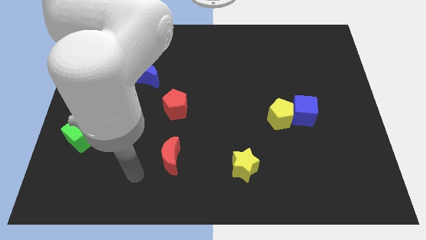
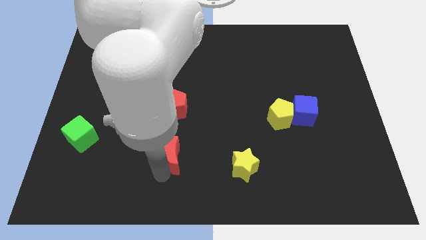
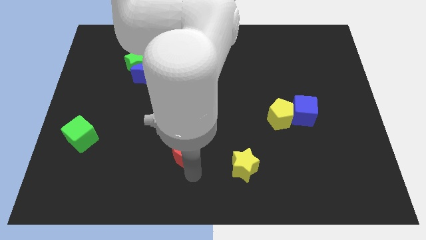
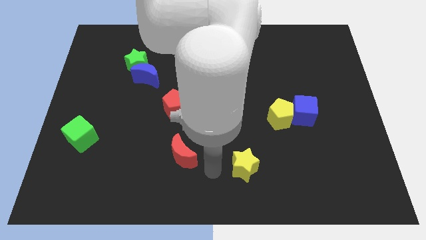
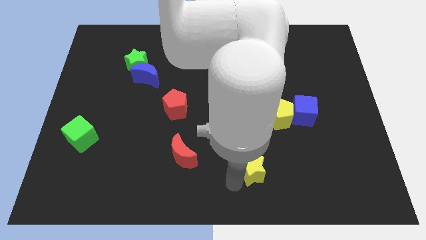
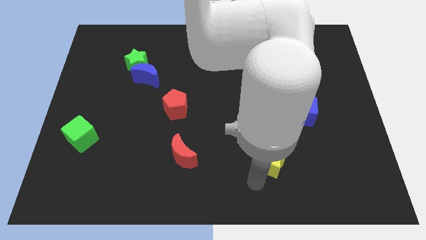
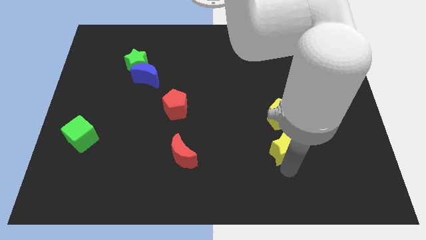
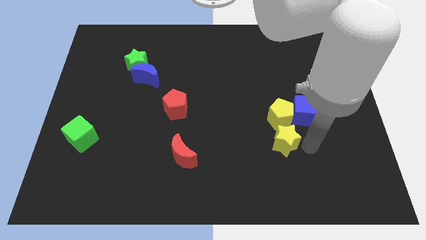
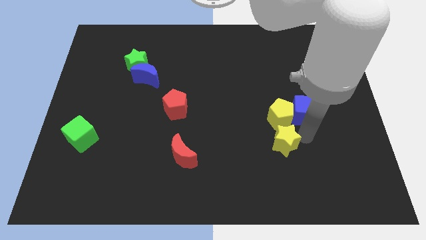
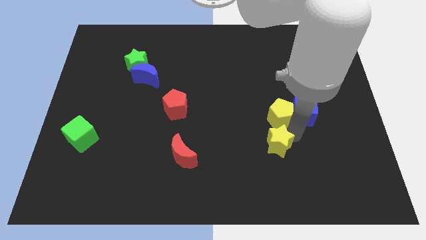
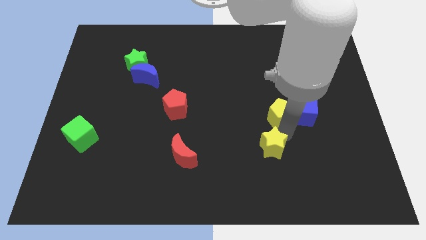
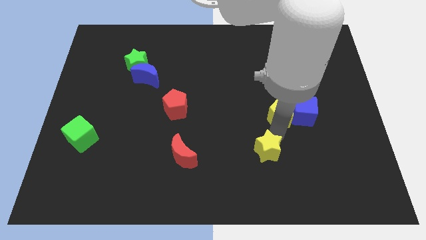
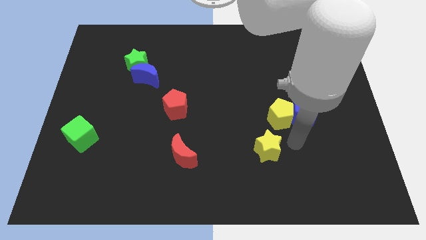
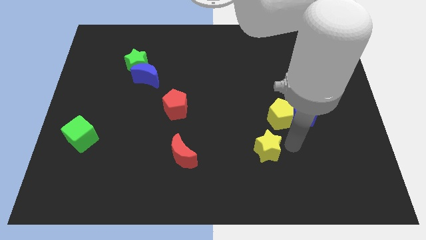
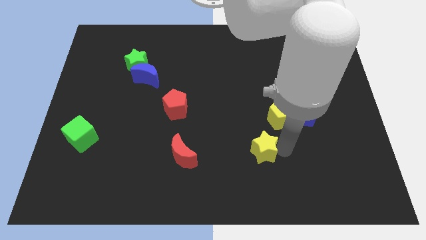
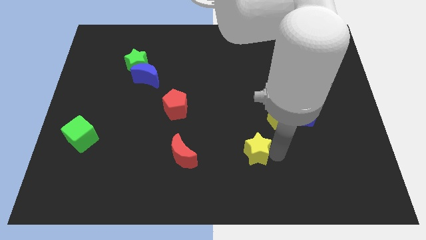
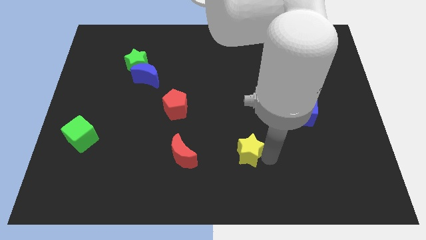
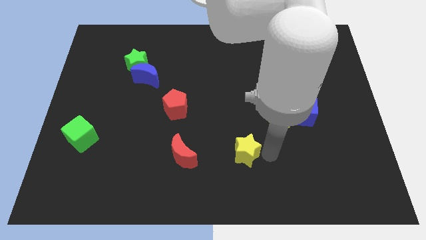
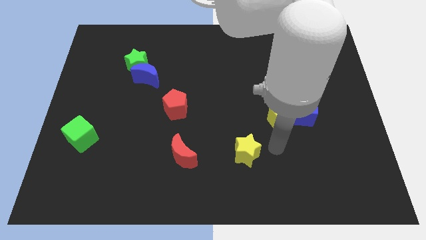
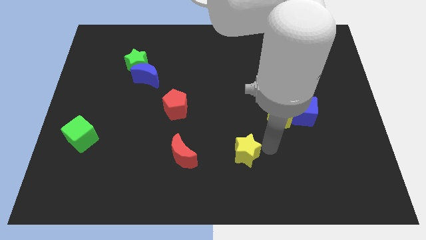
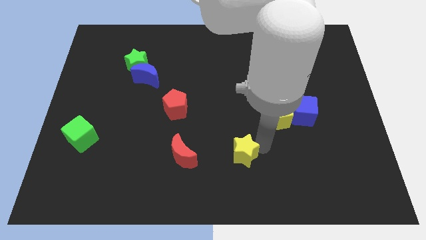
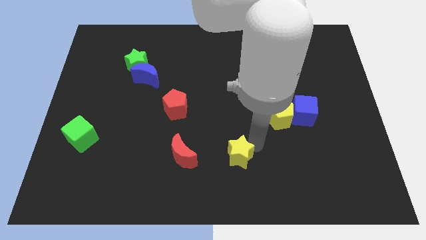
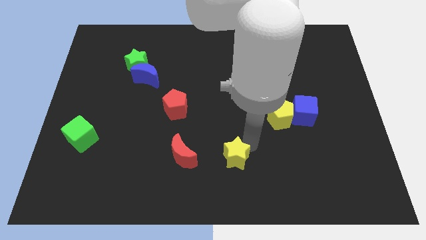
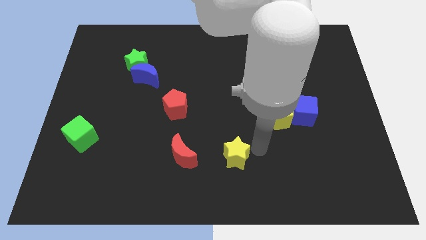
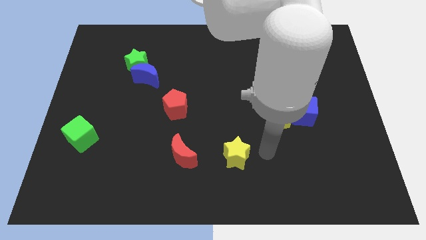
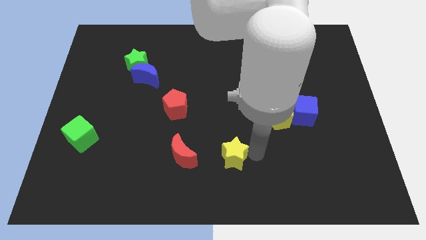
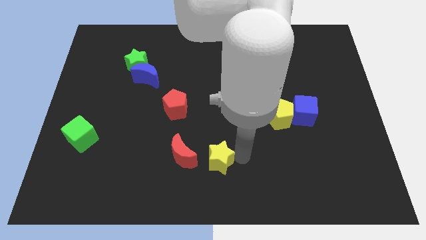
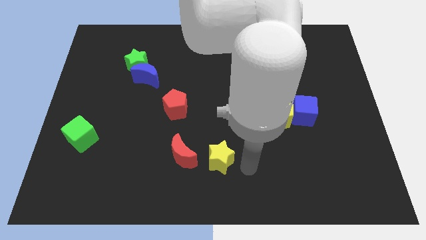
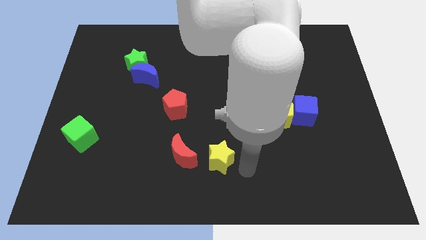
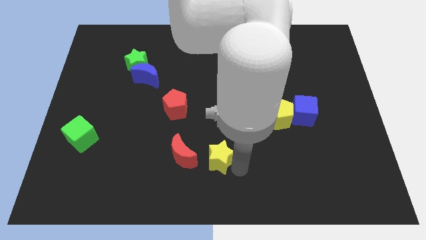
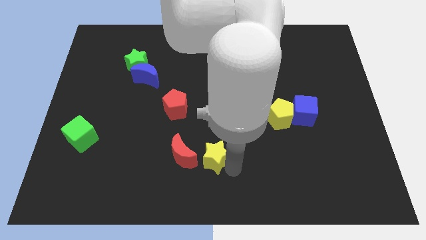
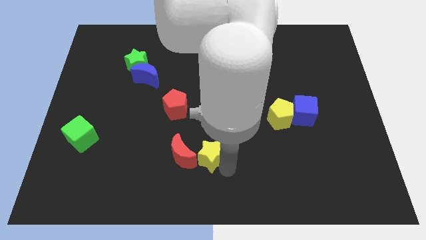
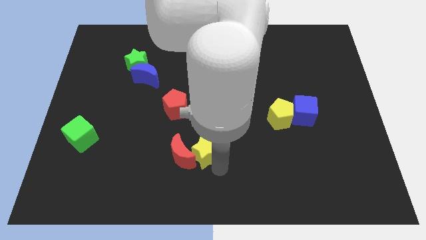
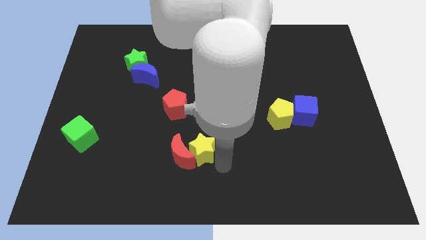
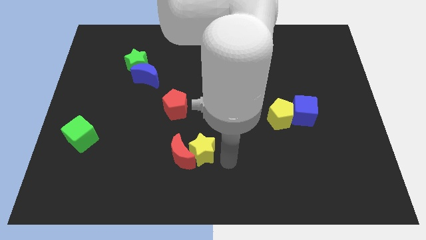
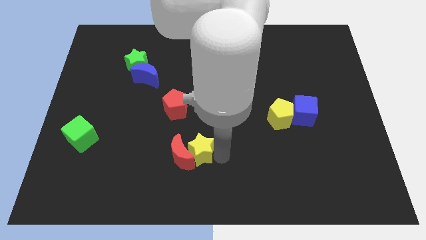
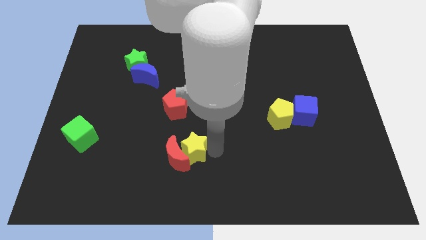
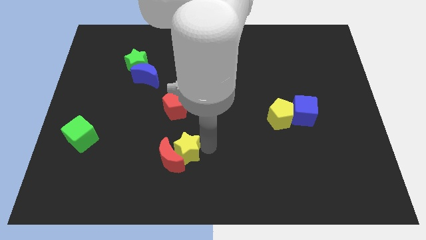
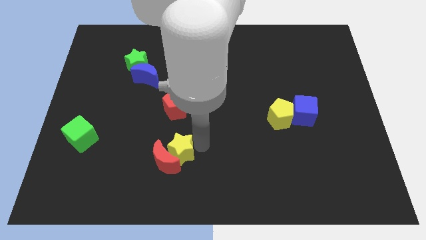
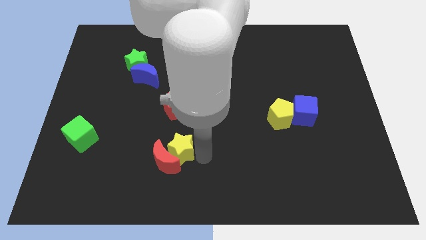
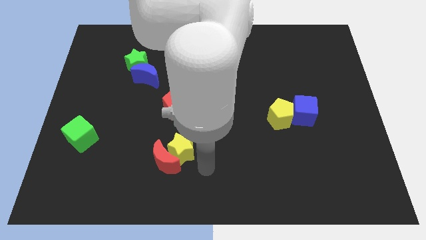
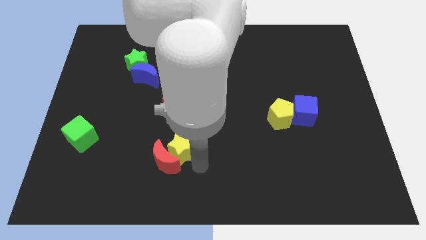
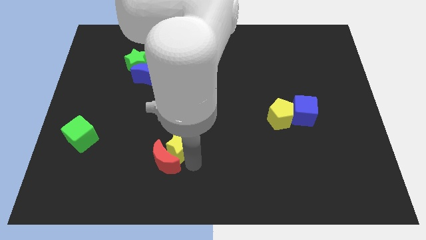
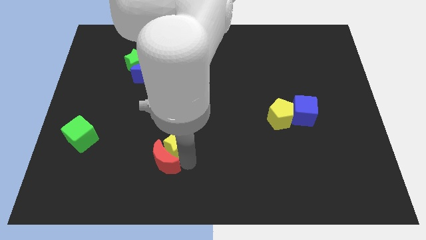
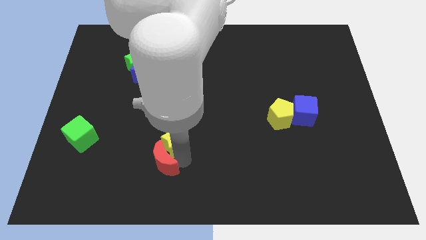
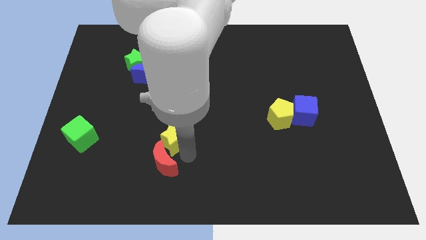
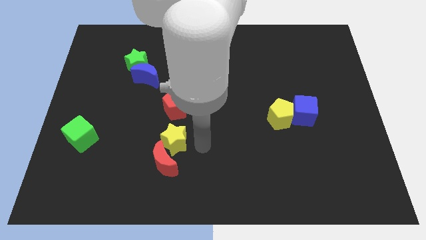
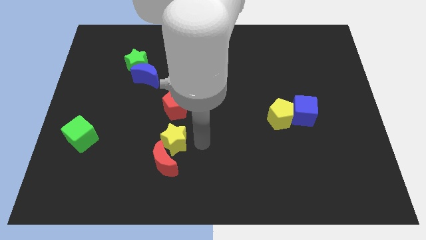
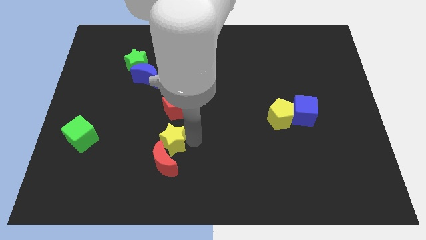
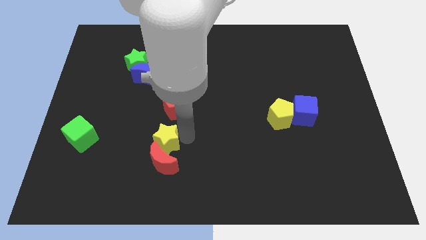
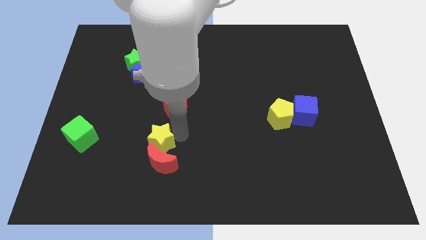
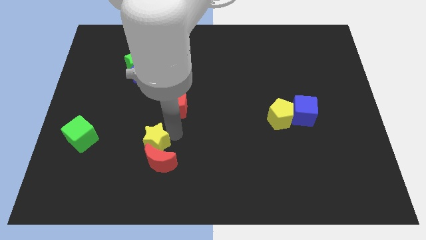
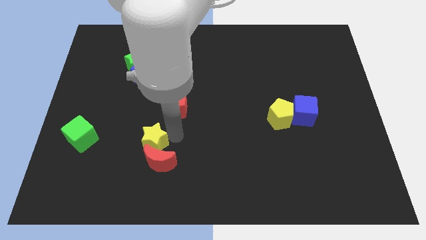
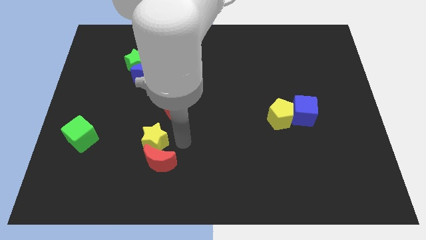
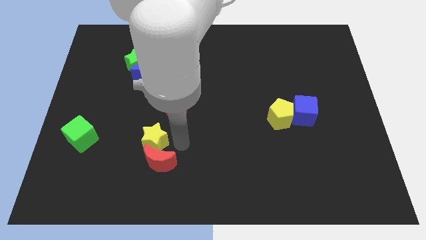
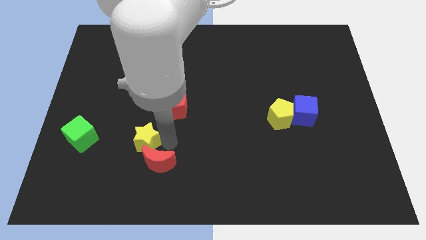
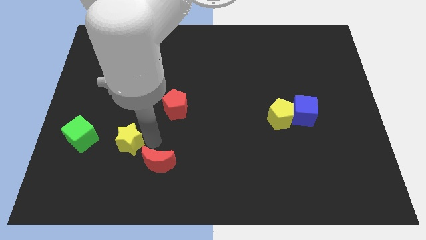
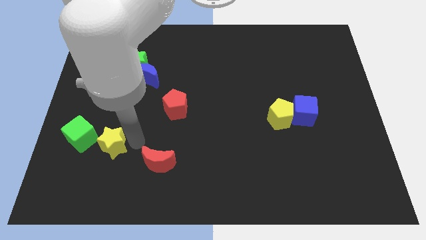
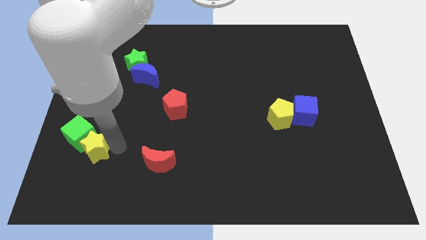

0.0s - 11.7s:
slide the yellow star next to the green cube

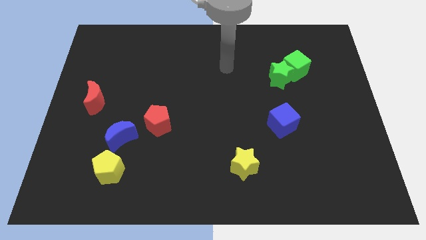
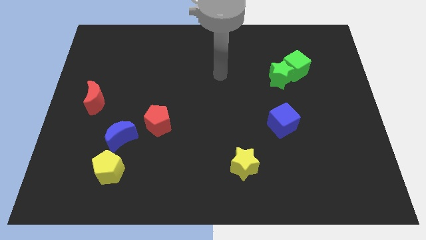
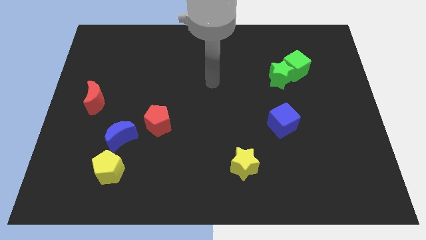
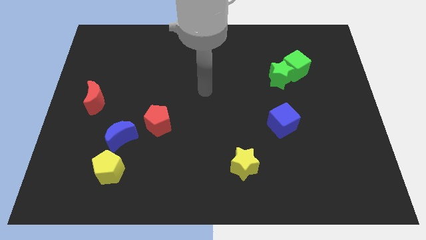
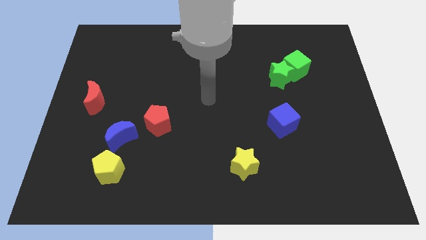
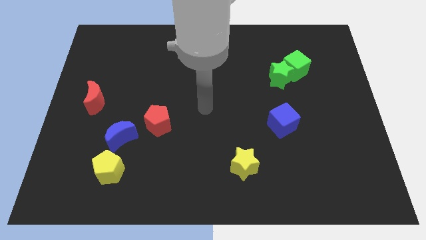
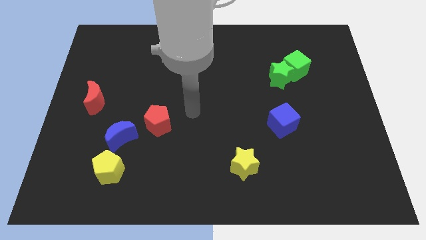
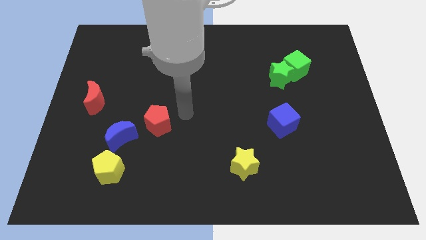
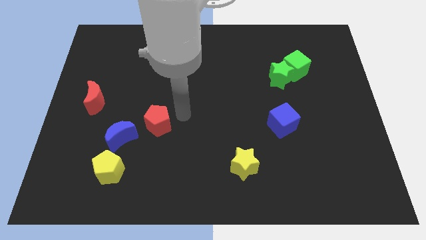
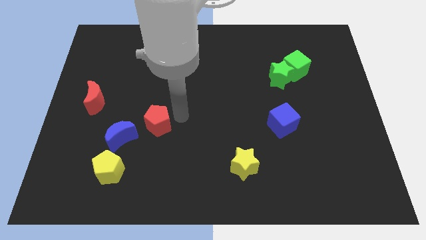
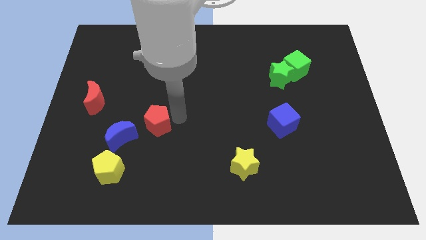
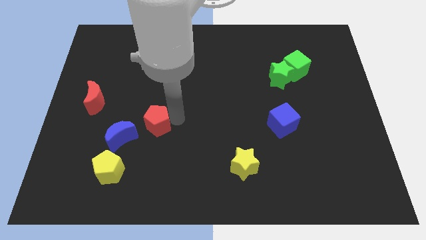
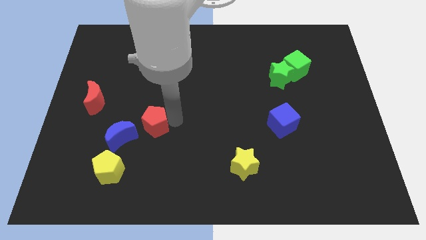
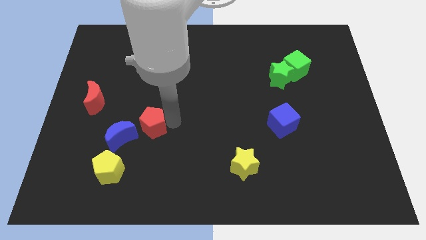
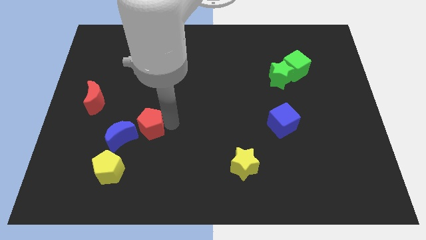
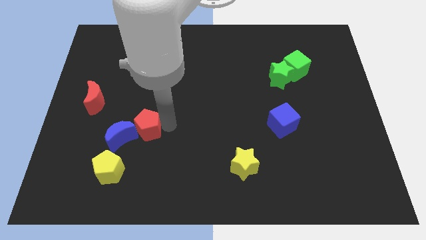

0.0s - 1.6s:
put the red pentagon towards the blue moon

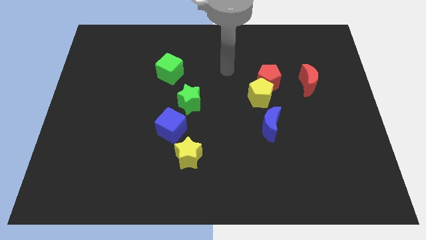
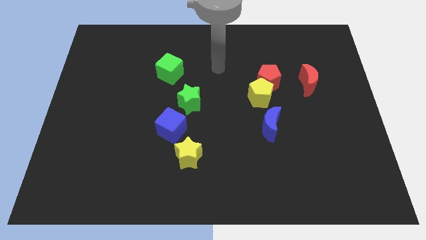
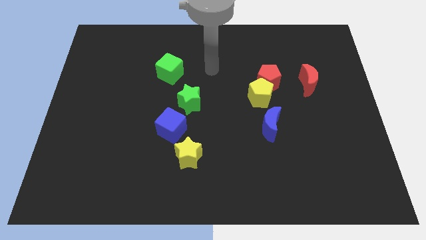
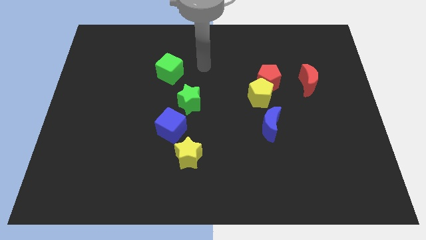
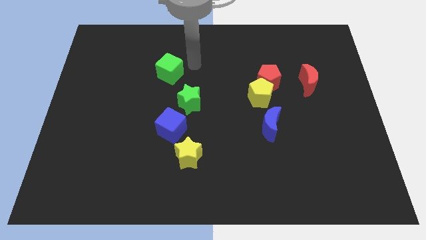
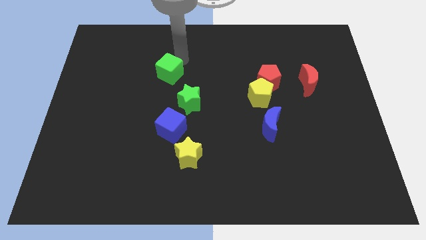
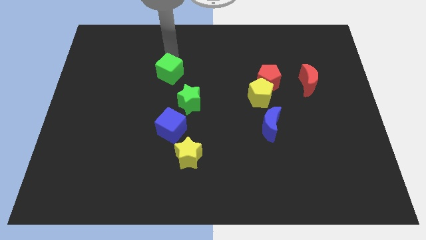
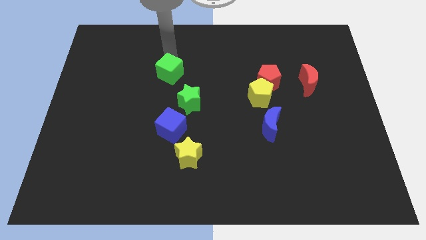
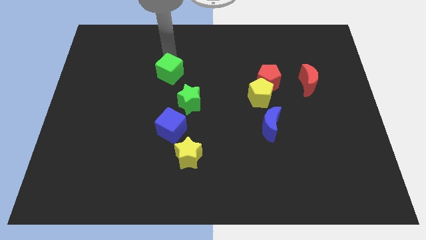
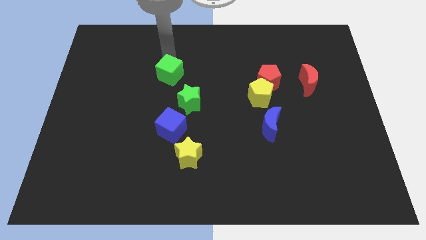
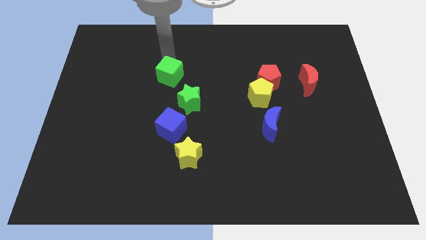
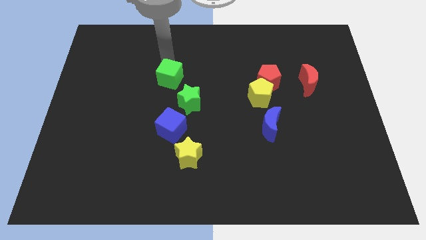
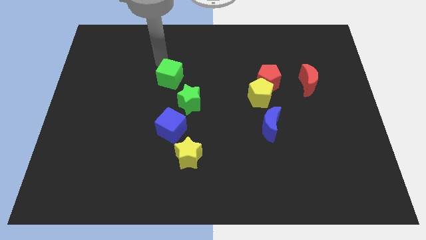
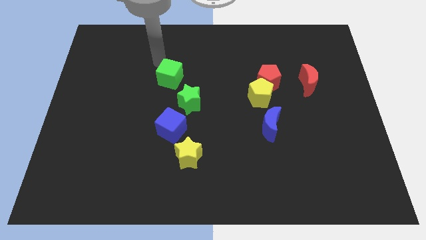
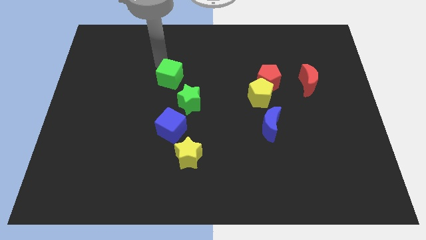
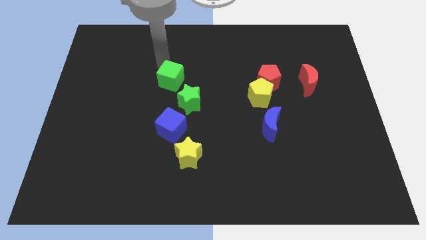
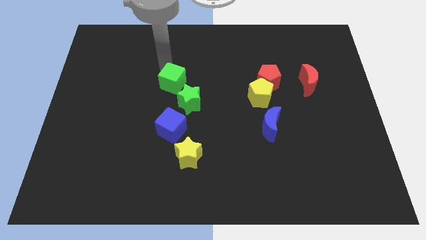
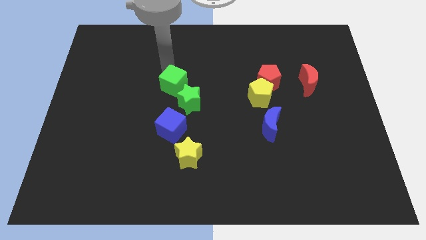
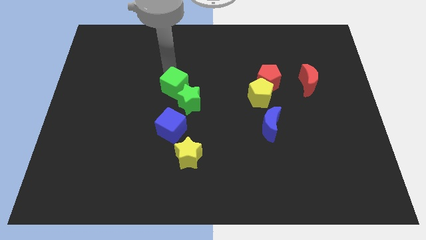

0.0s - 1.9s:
put the green cube towards the green star
